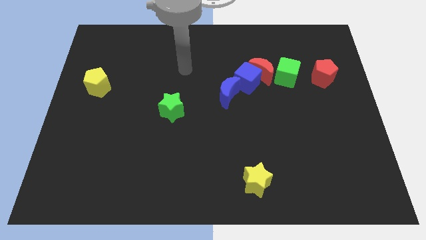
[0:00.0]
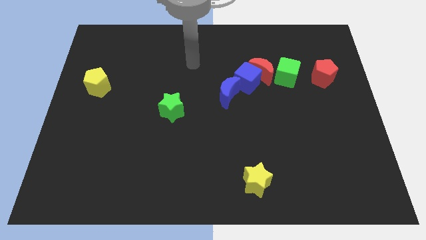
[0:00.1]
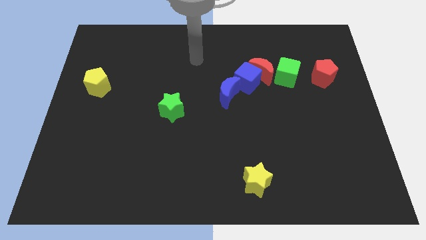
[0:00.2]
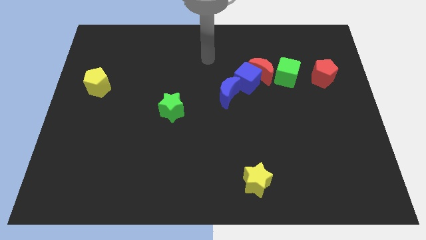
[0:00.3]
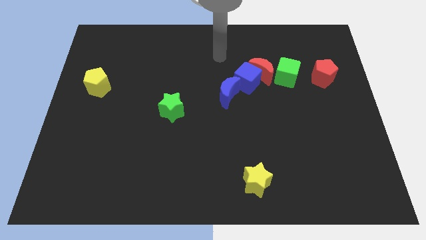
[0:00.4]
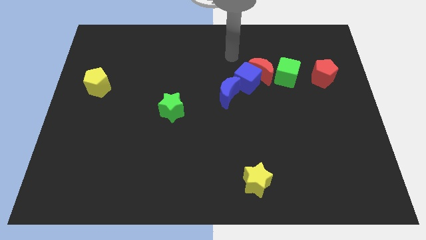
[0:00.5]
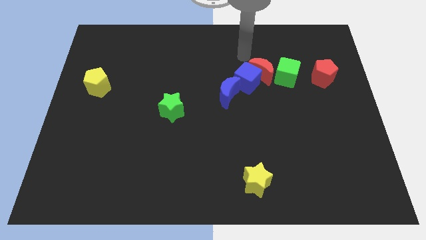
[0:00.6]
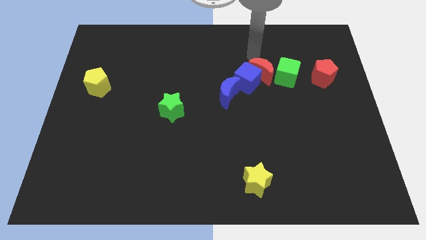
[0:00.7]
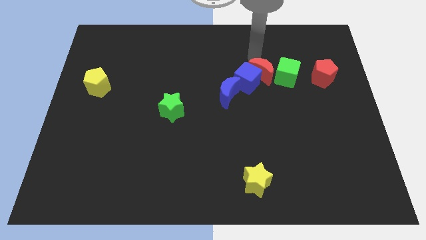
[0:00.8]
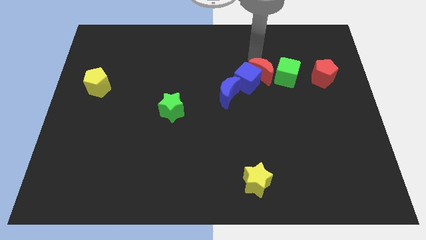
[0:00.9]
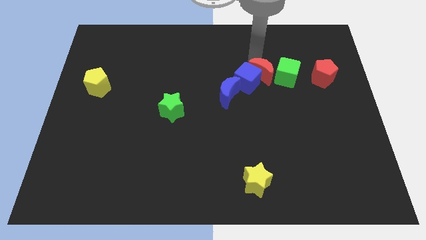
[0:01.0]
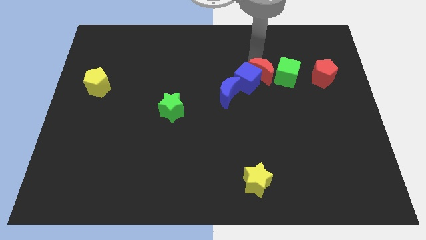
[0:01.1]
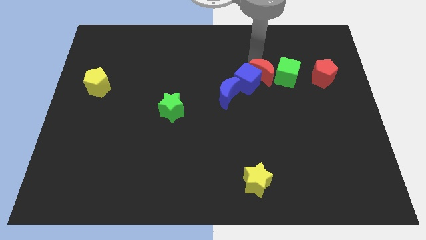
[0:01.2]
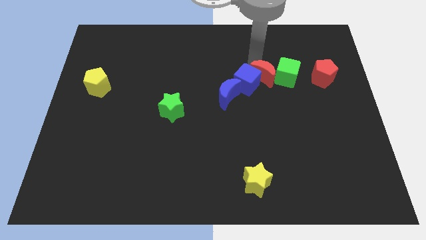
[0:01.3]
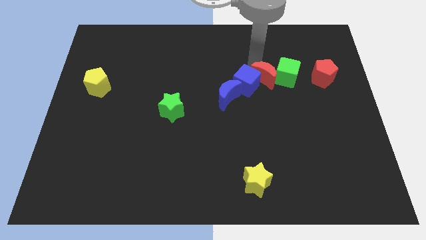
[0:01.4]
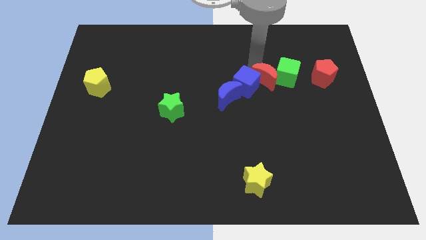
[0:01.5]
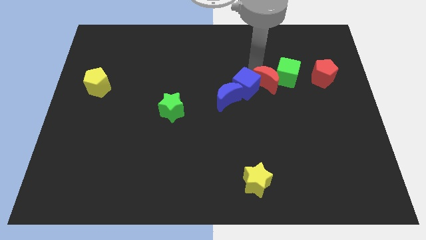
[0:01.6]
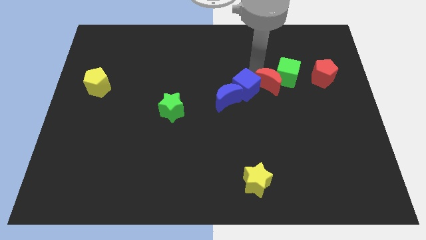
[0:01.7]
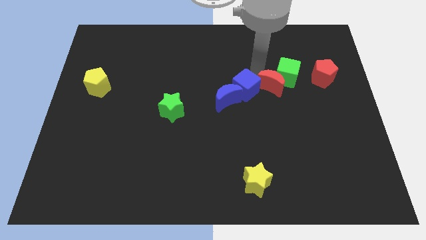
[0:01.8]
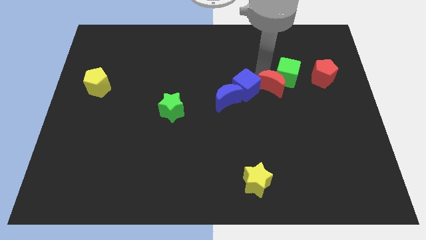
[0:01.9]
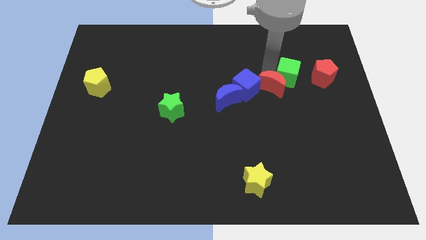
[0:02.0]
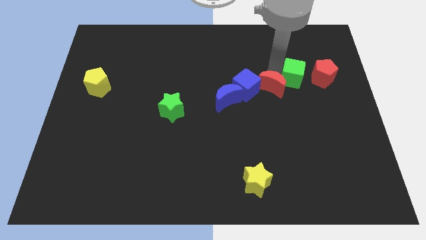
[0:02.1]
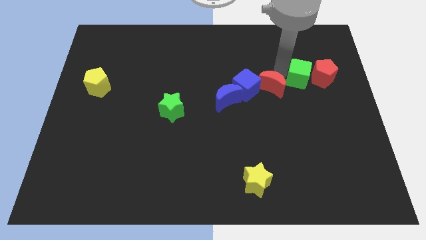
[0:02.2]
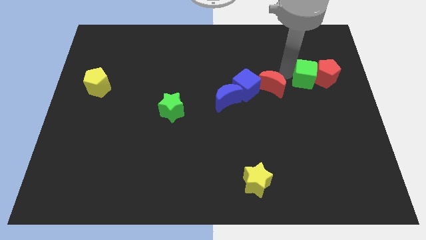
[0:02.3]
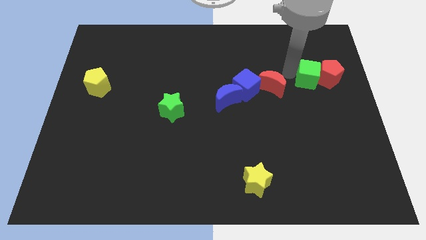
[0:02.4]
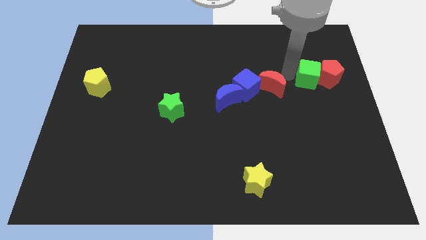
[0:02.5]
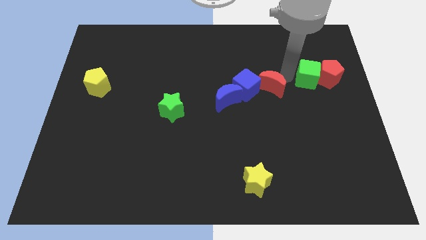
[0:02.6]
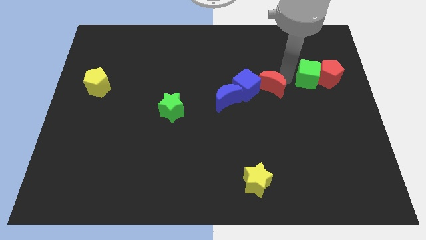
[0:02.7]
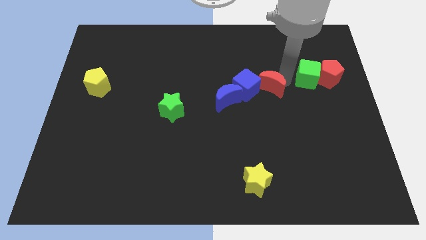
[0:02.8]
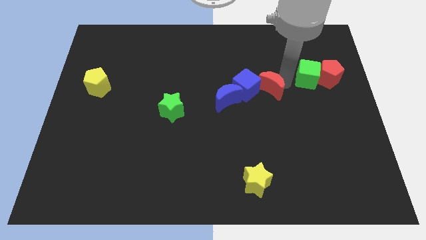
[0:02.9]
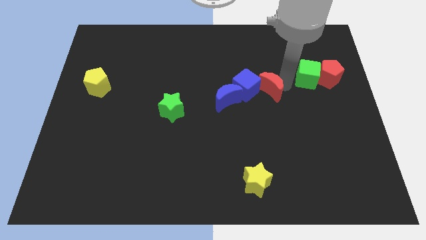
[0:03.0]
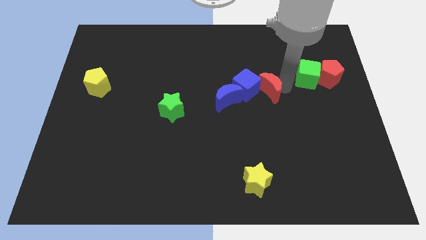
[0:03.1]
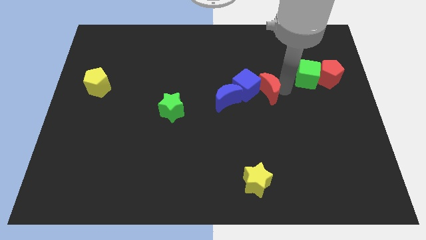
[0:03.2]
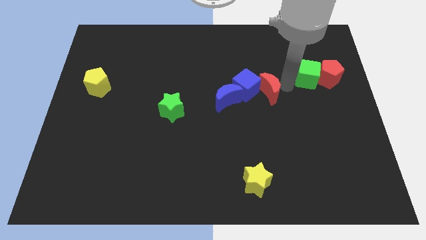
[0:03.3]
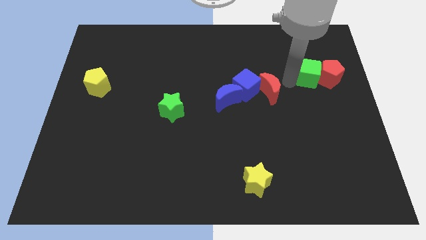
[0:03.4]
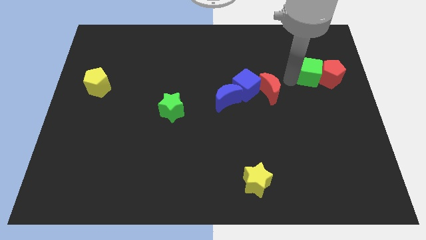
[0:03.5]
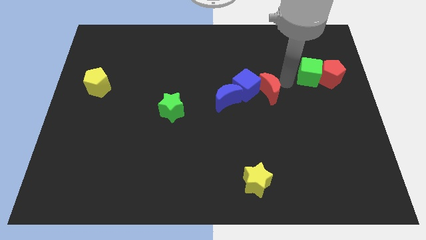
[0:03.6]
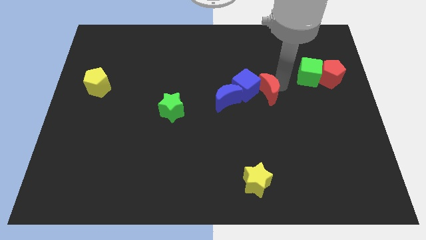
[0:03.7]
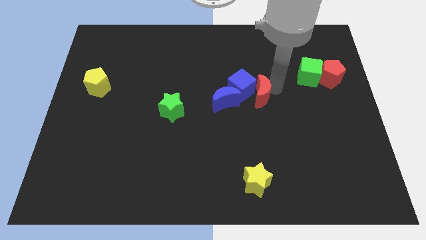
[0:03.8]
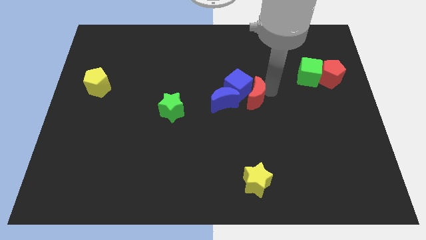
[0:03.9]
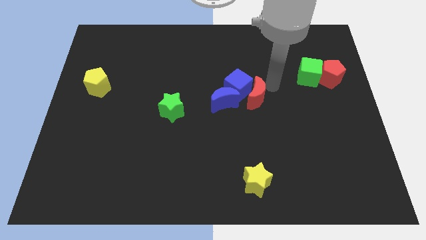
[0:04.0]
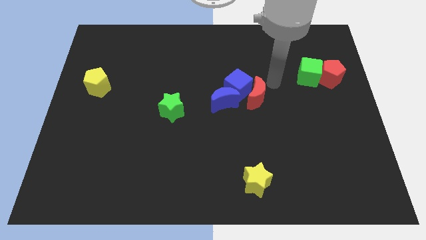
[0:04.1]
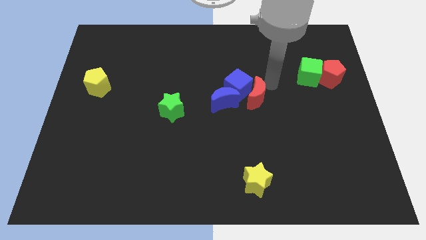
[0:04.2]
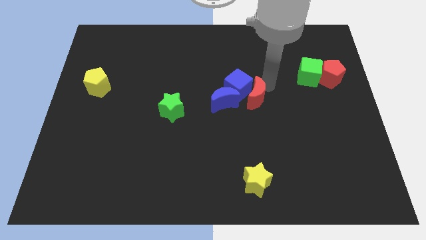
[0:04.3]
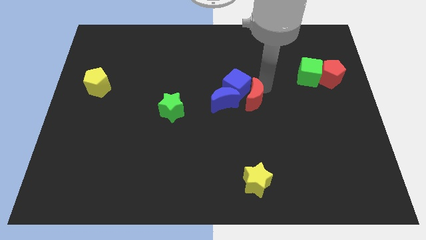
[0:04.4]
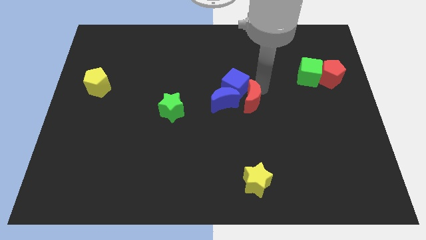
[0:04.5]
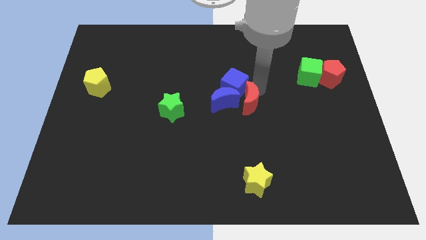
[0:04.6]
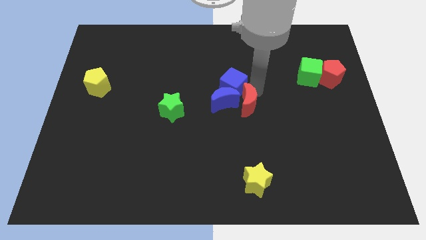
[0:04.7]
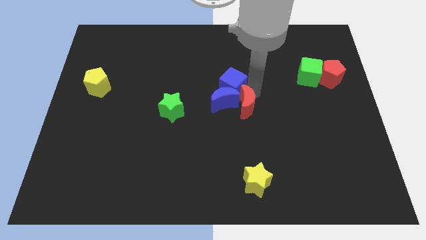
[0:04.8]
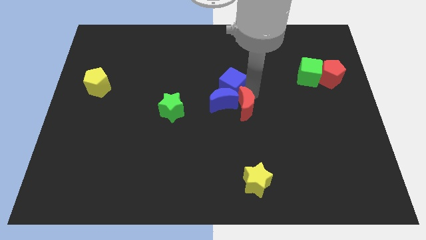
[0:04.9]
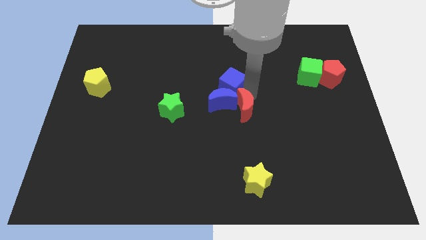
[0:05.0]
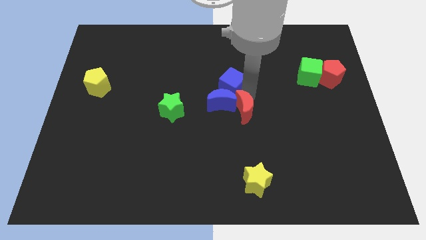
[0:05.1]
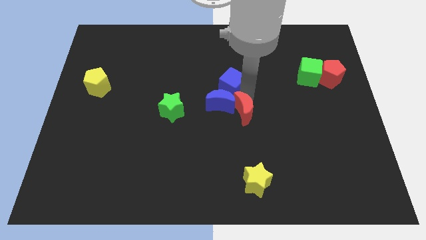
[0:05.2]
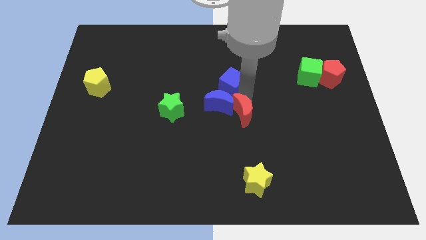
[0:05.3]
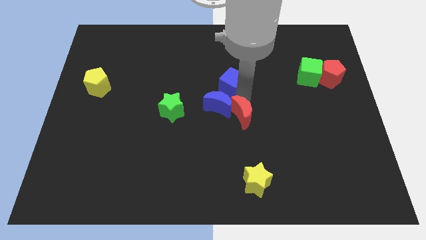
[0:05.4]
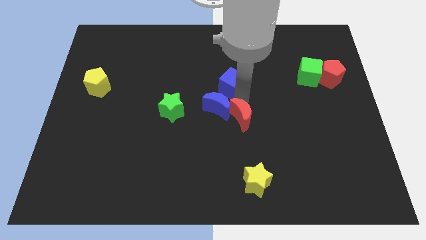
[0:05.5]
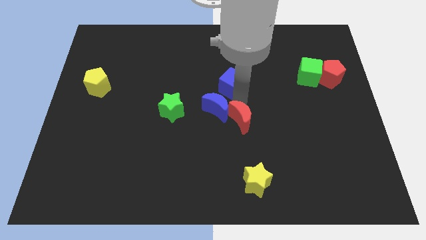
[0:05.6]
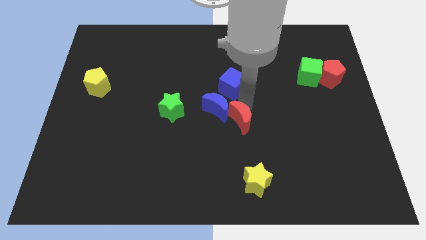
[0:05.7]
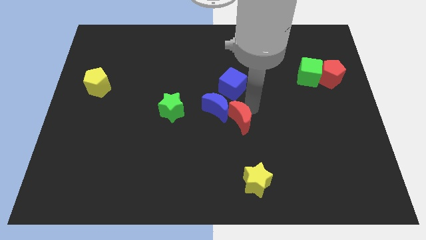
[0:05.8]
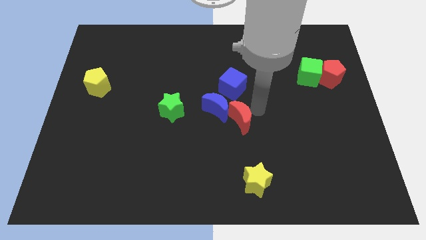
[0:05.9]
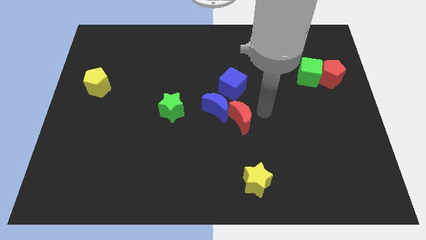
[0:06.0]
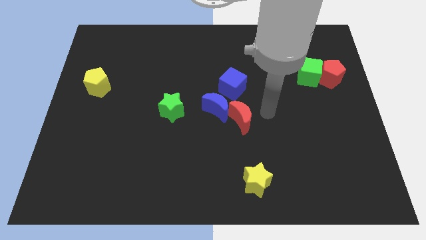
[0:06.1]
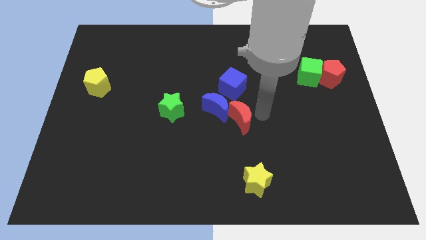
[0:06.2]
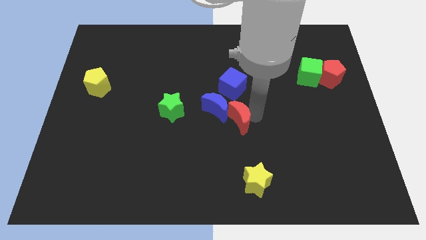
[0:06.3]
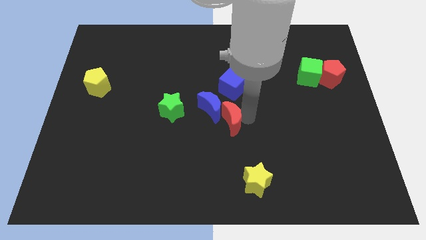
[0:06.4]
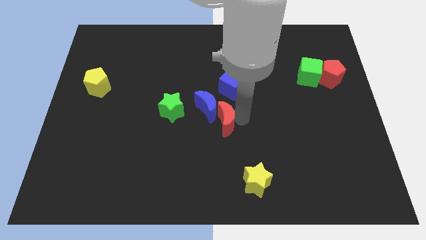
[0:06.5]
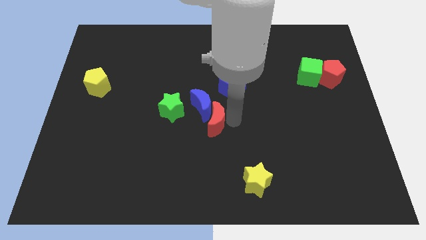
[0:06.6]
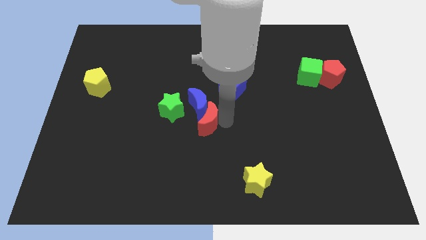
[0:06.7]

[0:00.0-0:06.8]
move the red moon diagonally down and to the right of the green star
